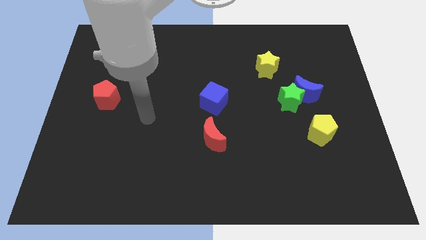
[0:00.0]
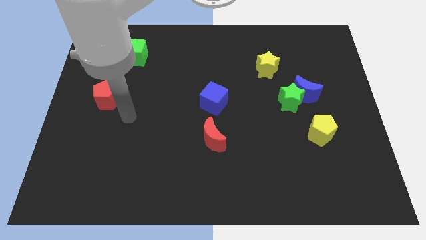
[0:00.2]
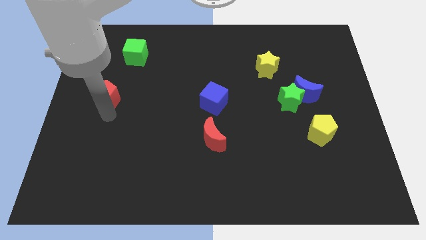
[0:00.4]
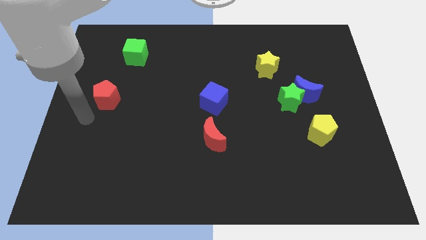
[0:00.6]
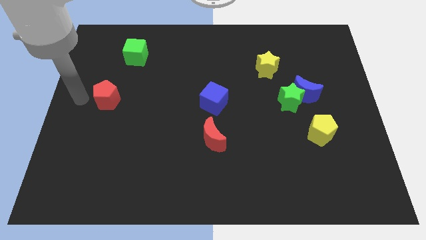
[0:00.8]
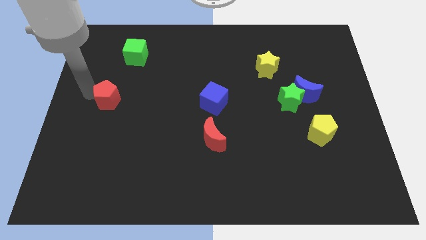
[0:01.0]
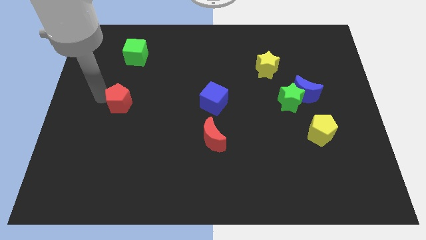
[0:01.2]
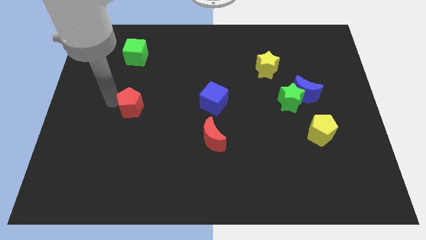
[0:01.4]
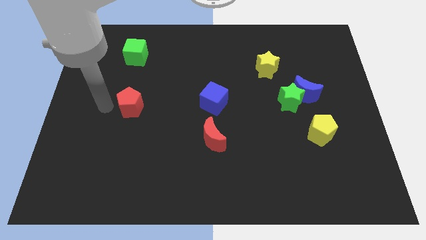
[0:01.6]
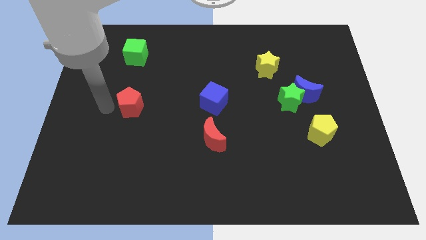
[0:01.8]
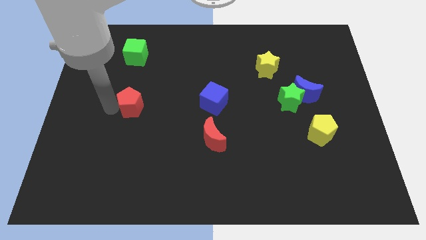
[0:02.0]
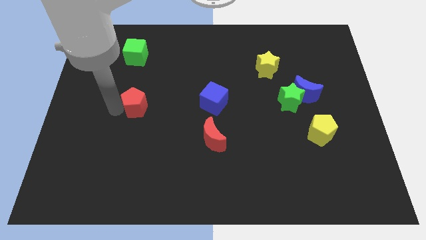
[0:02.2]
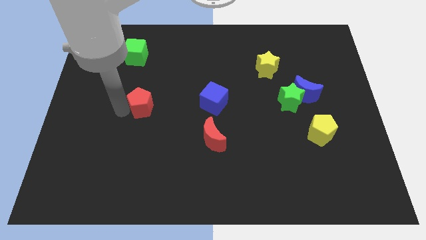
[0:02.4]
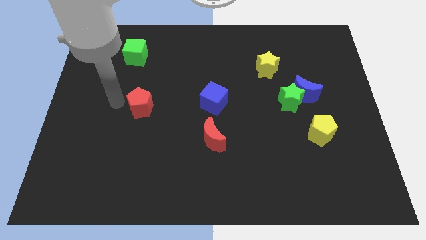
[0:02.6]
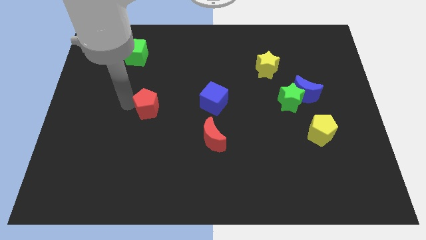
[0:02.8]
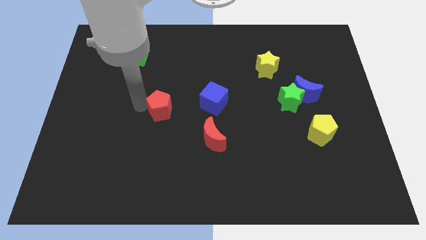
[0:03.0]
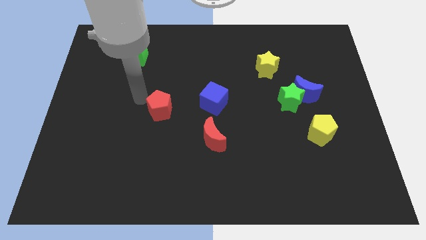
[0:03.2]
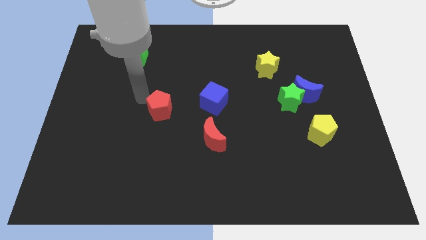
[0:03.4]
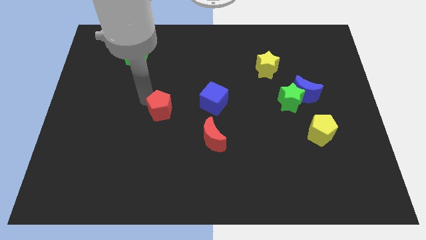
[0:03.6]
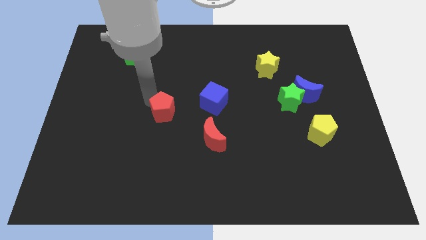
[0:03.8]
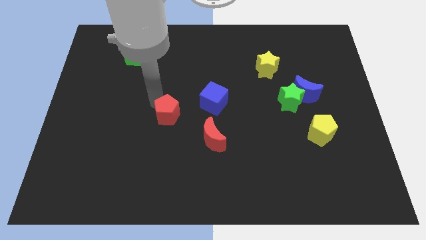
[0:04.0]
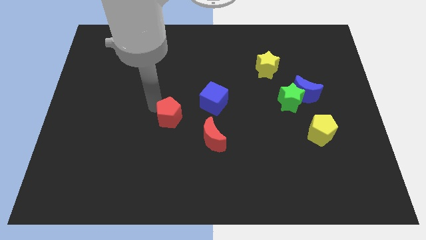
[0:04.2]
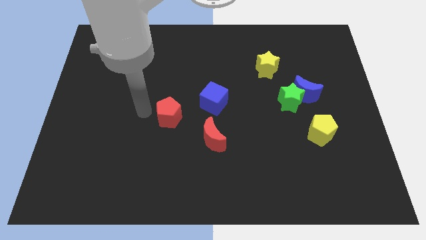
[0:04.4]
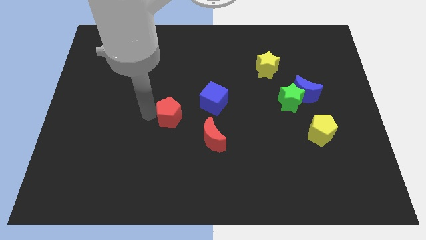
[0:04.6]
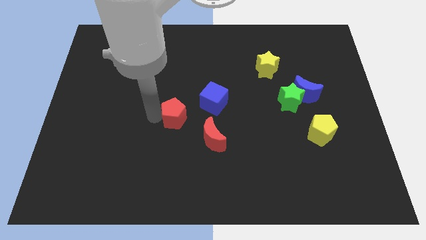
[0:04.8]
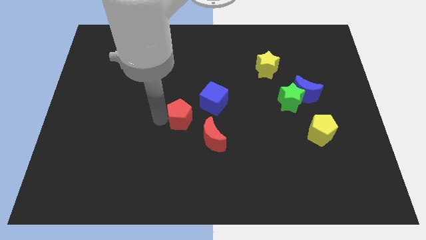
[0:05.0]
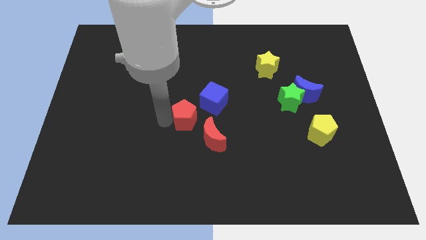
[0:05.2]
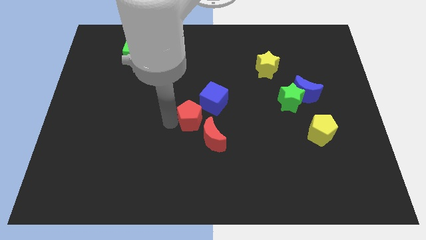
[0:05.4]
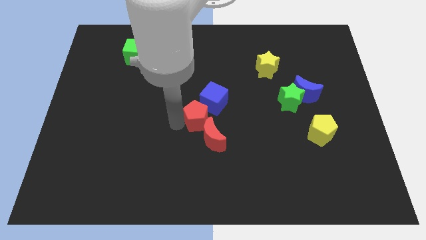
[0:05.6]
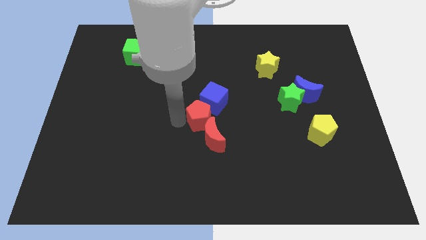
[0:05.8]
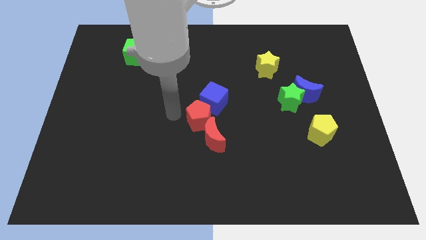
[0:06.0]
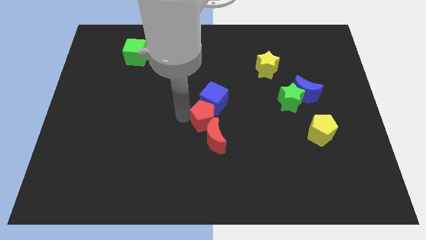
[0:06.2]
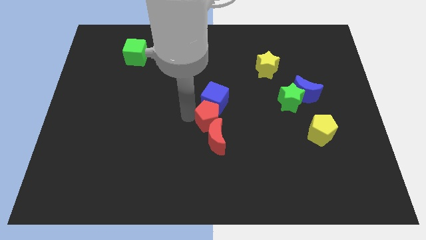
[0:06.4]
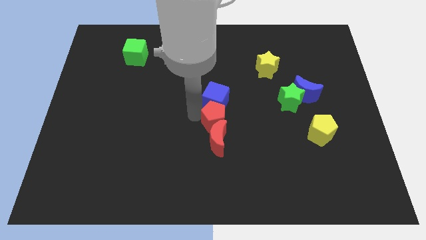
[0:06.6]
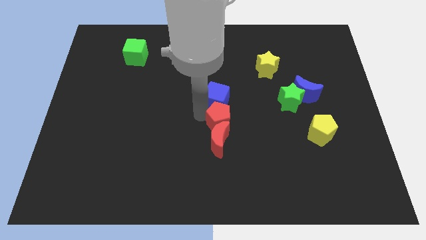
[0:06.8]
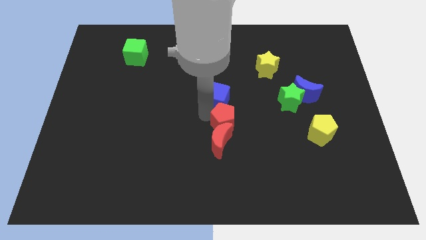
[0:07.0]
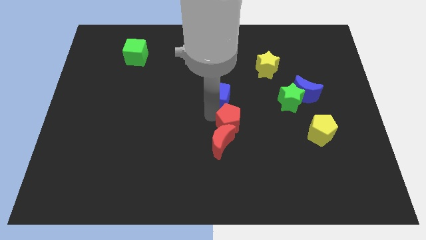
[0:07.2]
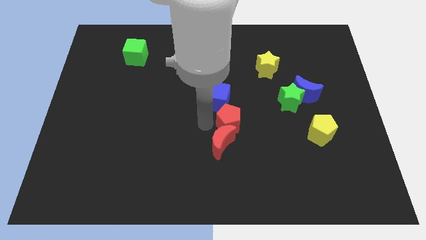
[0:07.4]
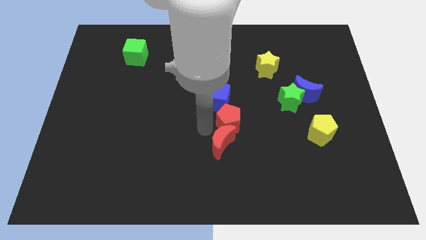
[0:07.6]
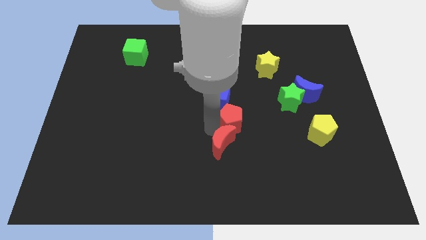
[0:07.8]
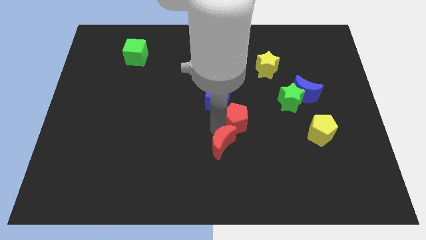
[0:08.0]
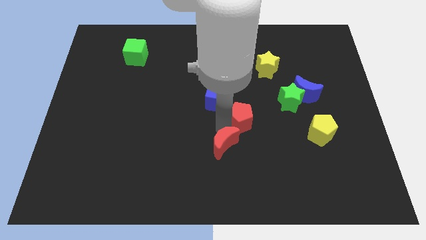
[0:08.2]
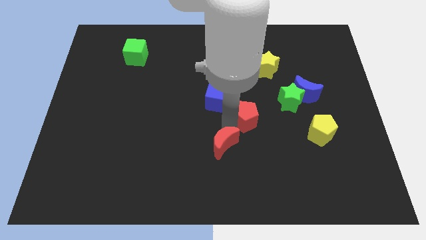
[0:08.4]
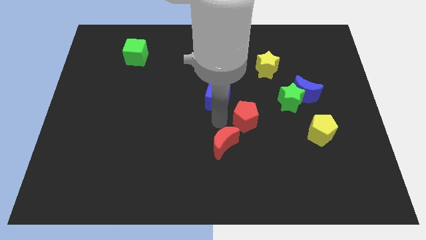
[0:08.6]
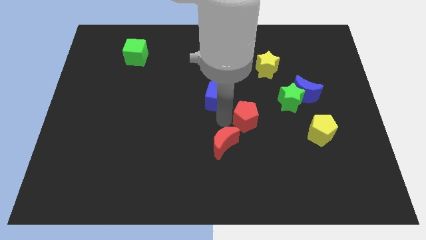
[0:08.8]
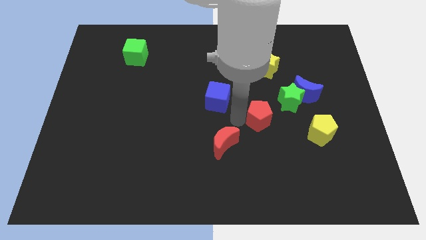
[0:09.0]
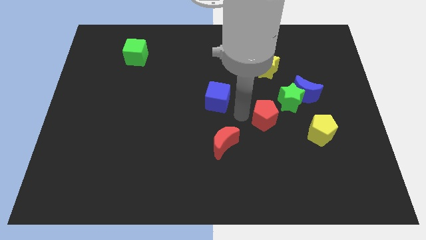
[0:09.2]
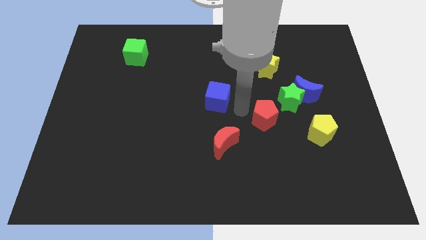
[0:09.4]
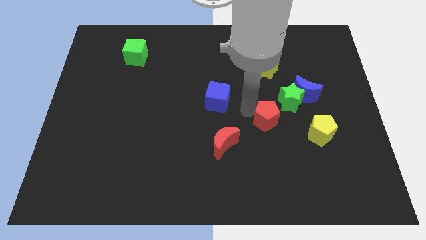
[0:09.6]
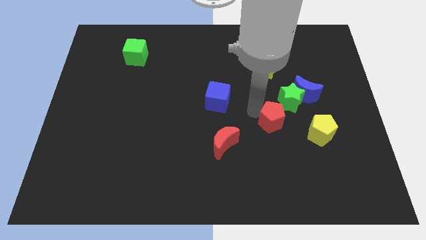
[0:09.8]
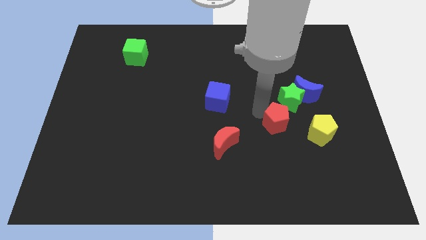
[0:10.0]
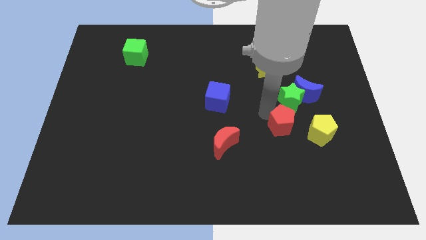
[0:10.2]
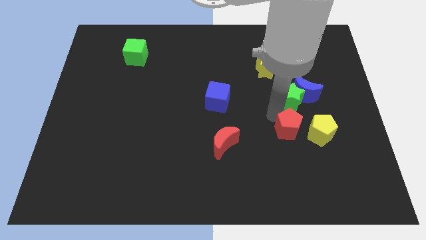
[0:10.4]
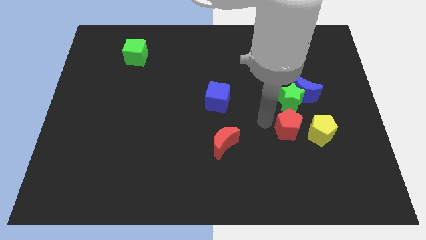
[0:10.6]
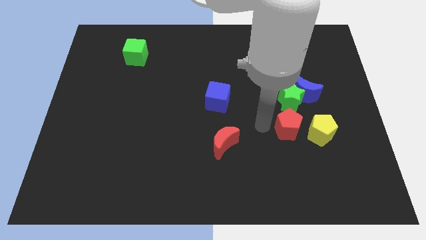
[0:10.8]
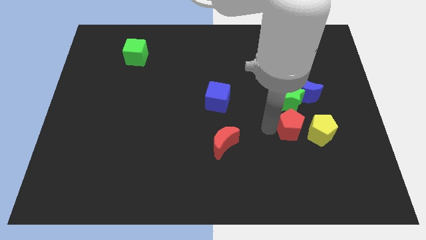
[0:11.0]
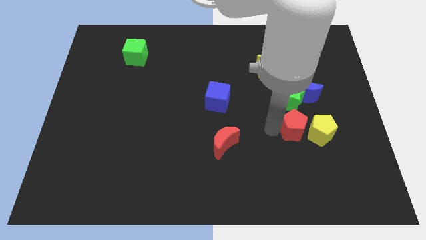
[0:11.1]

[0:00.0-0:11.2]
slide the red pentagon next to the yellow pentagon
